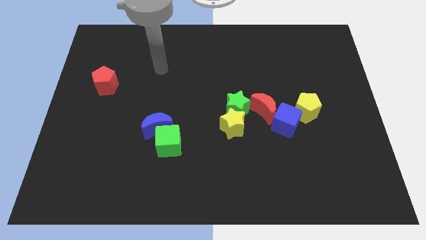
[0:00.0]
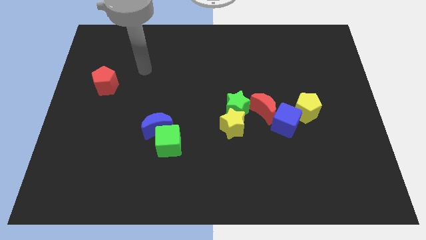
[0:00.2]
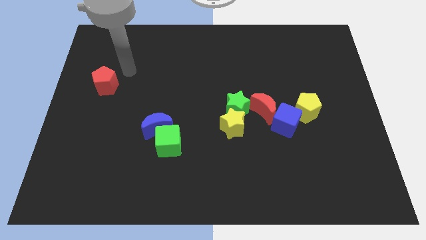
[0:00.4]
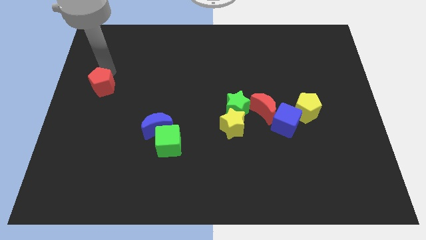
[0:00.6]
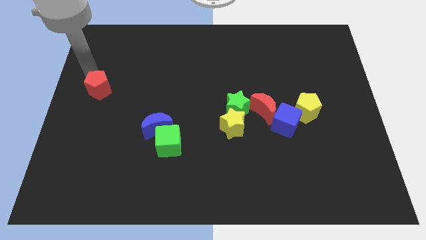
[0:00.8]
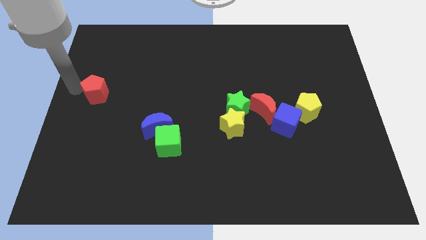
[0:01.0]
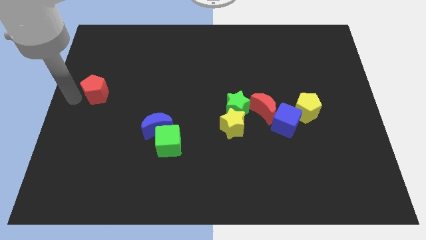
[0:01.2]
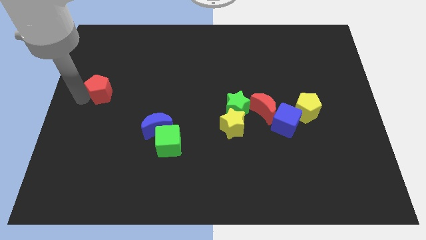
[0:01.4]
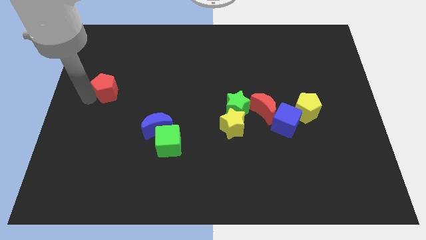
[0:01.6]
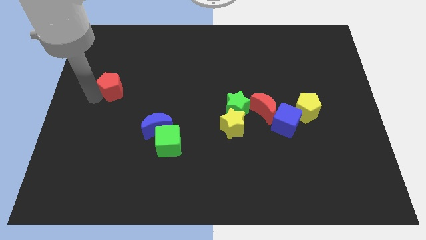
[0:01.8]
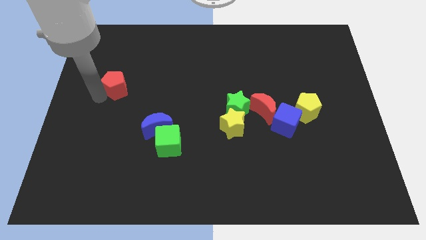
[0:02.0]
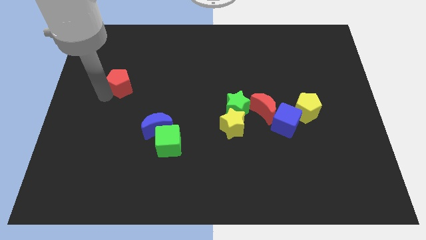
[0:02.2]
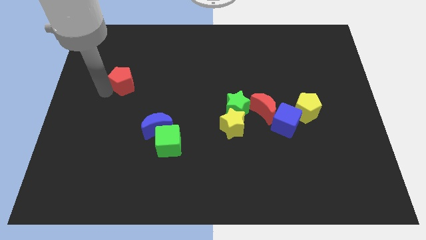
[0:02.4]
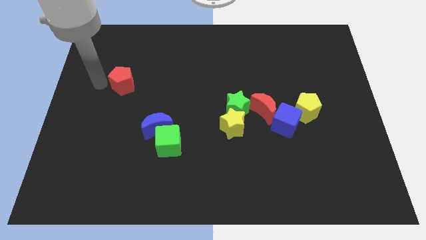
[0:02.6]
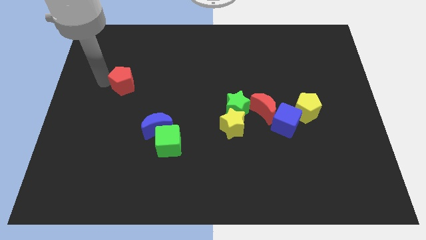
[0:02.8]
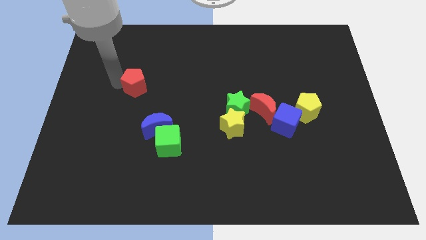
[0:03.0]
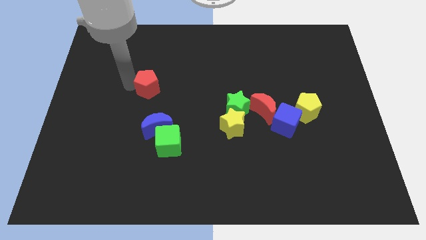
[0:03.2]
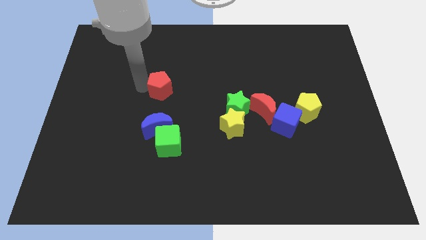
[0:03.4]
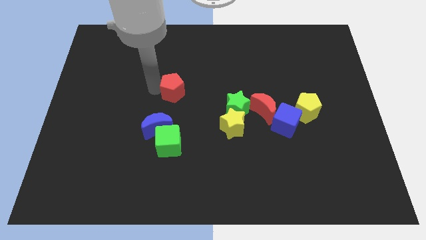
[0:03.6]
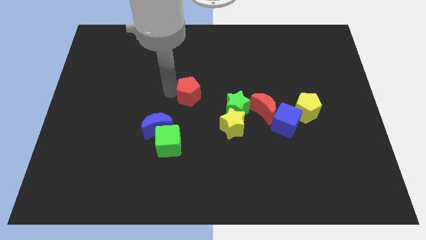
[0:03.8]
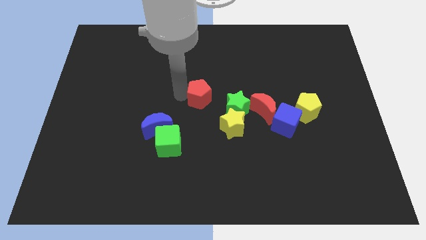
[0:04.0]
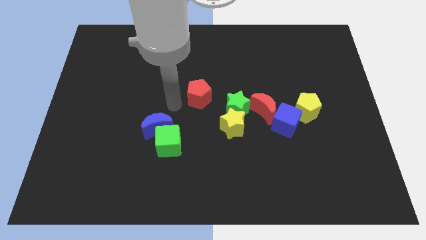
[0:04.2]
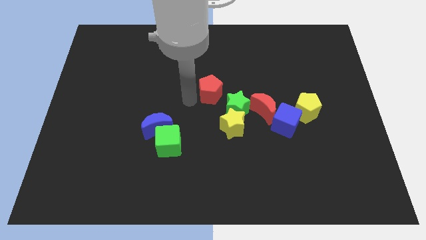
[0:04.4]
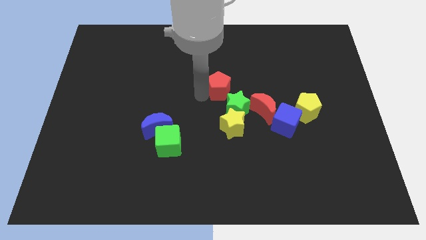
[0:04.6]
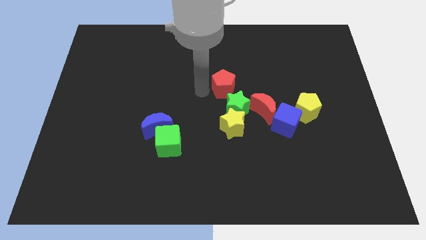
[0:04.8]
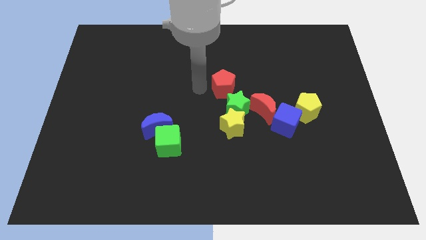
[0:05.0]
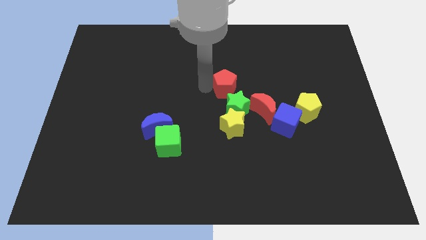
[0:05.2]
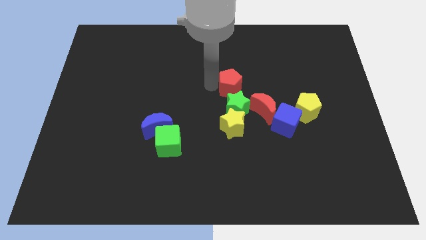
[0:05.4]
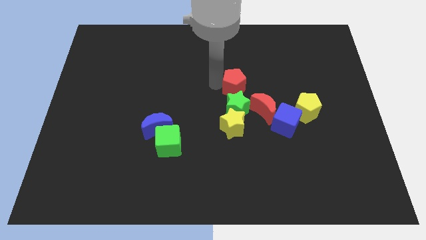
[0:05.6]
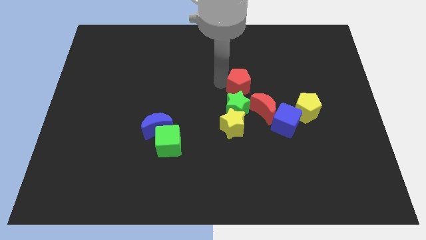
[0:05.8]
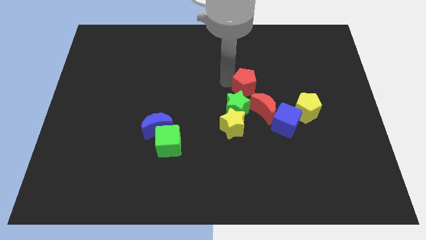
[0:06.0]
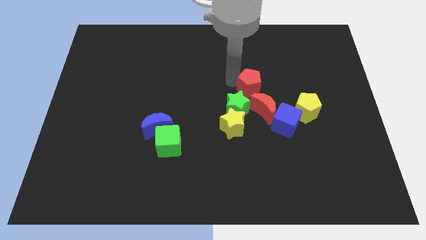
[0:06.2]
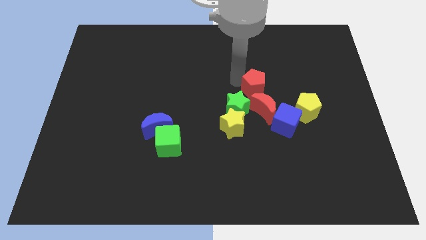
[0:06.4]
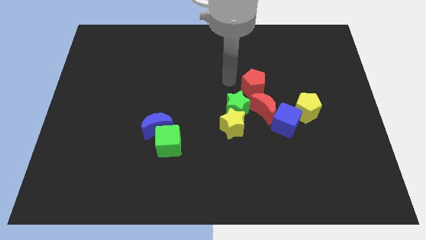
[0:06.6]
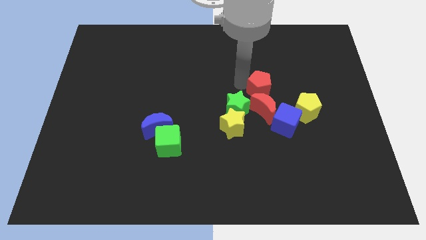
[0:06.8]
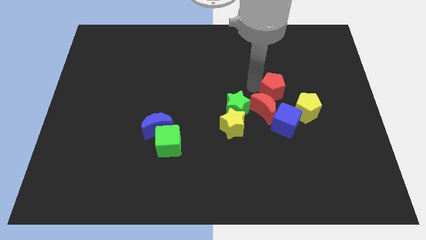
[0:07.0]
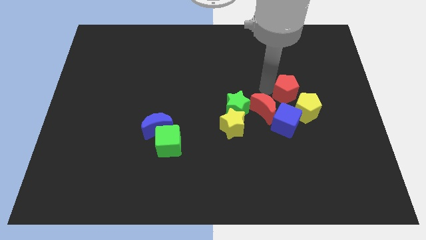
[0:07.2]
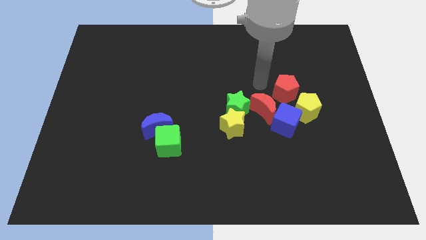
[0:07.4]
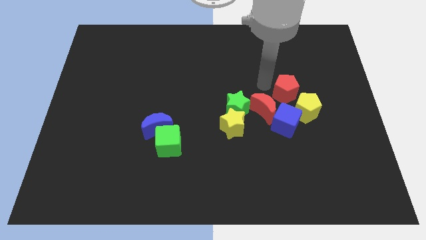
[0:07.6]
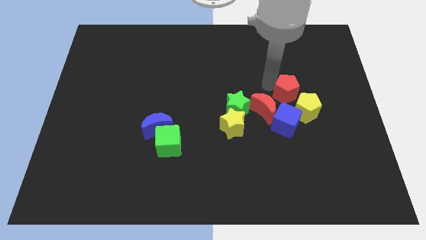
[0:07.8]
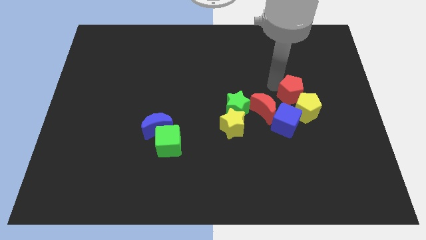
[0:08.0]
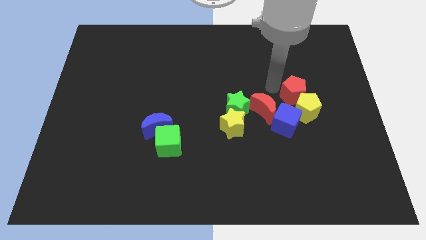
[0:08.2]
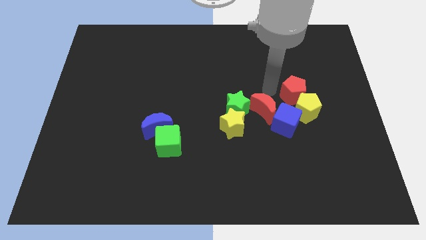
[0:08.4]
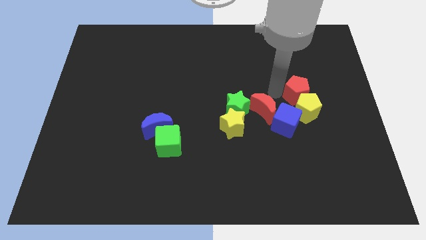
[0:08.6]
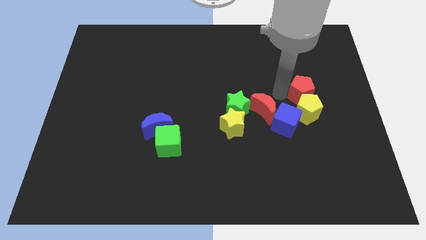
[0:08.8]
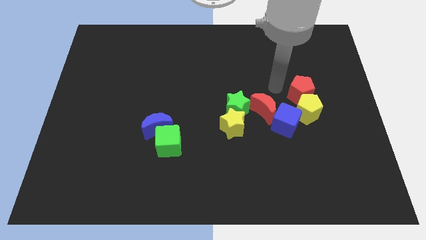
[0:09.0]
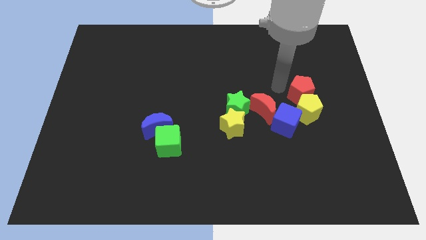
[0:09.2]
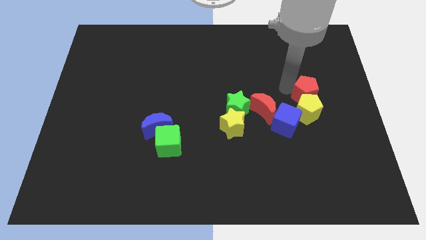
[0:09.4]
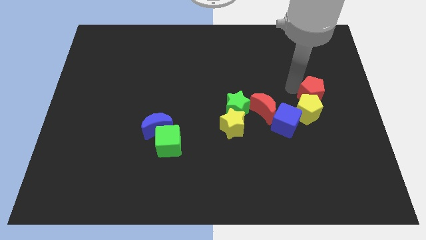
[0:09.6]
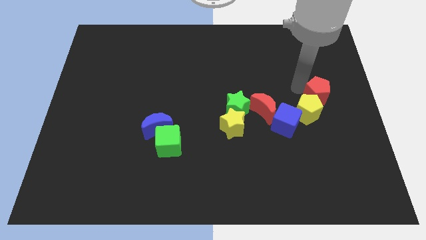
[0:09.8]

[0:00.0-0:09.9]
move the red pentagon to the right side of the board

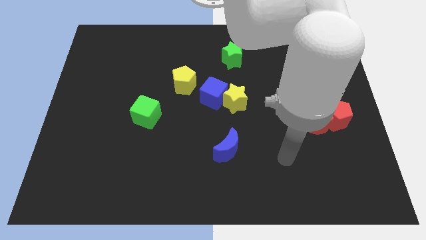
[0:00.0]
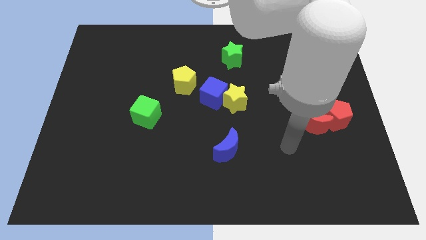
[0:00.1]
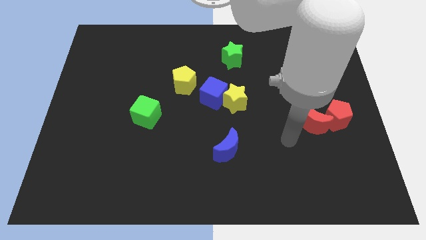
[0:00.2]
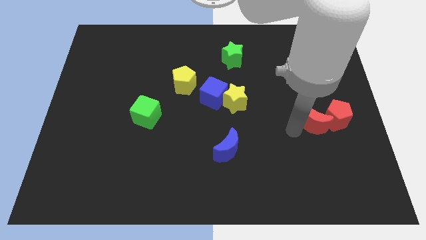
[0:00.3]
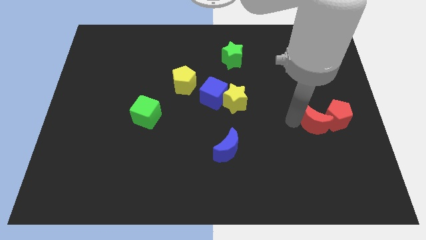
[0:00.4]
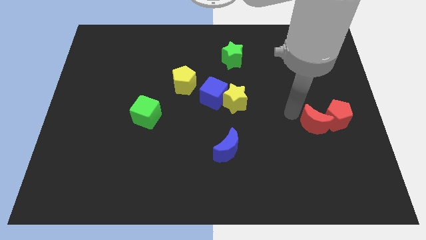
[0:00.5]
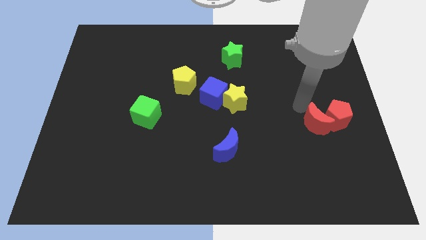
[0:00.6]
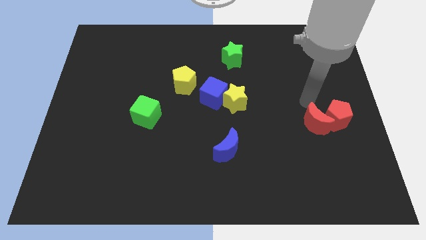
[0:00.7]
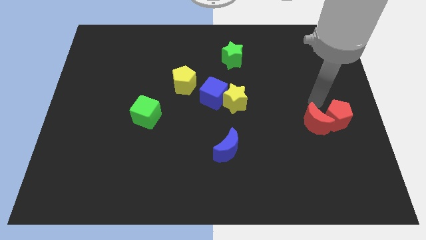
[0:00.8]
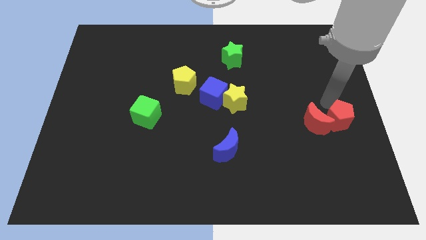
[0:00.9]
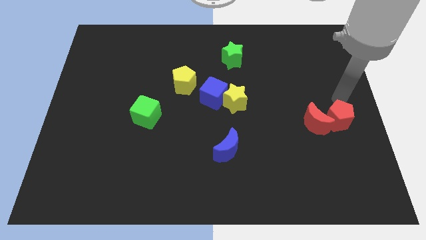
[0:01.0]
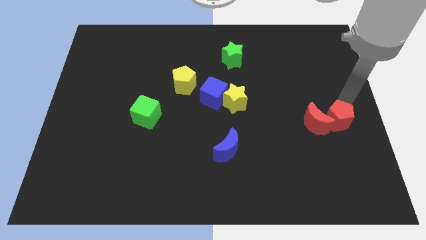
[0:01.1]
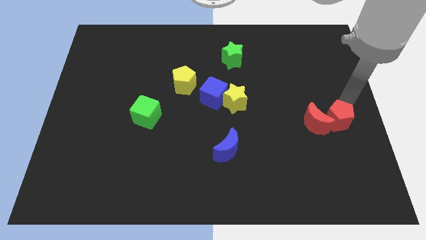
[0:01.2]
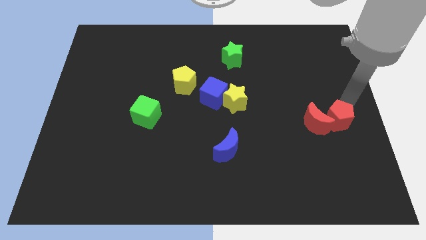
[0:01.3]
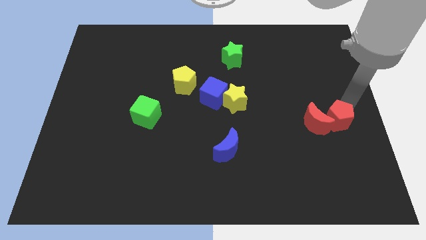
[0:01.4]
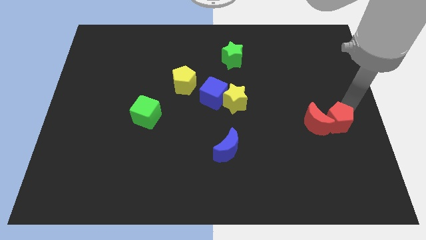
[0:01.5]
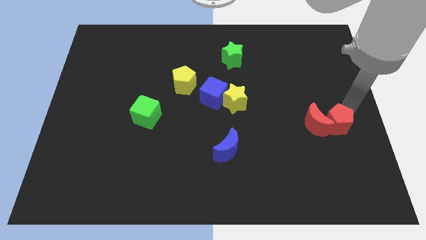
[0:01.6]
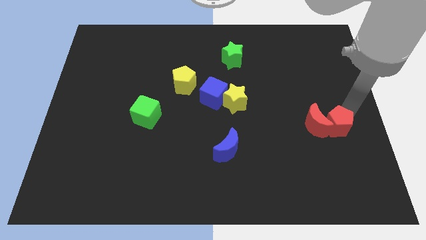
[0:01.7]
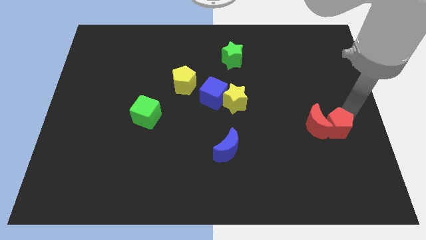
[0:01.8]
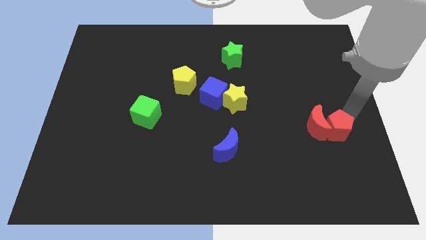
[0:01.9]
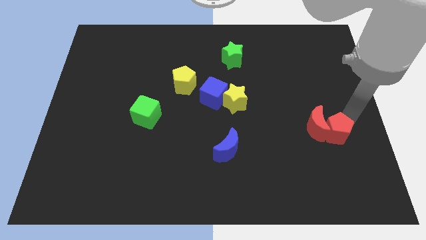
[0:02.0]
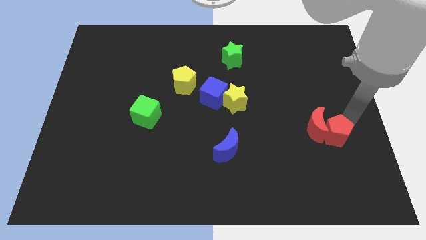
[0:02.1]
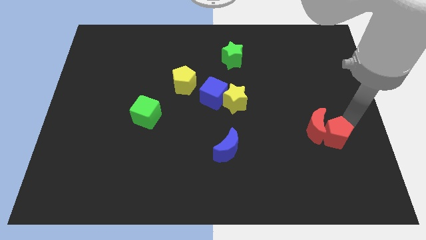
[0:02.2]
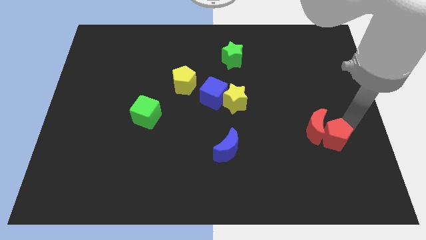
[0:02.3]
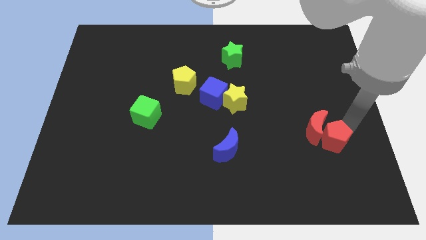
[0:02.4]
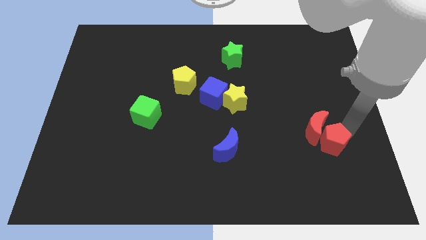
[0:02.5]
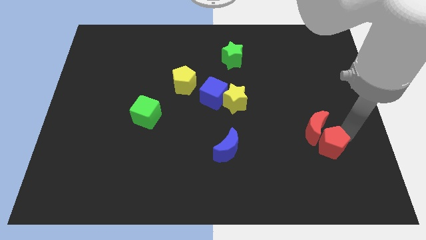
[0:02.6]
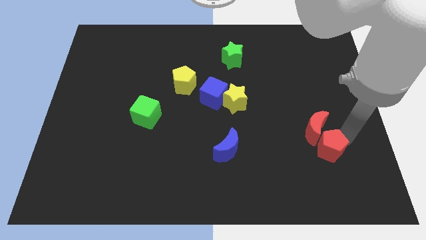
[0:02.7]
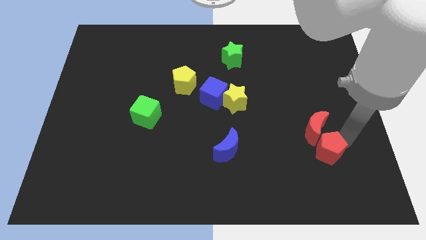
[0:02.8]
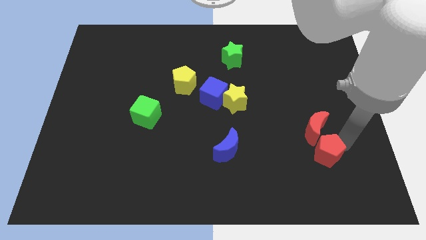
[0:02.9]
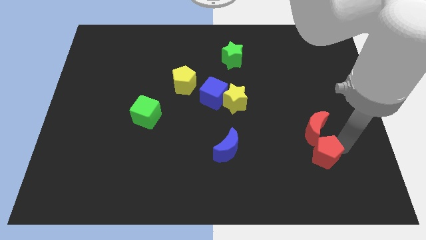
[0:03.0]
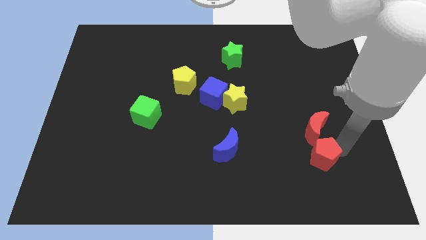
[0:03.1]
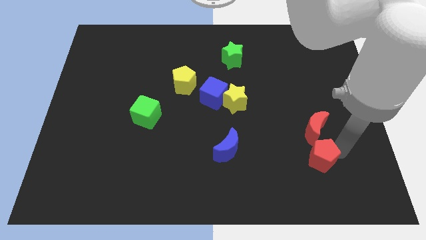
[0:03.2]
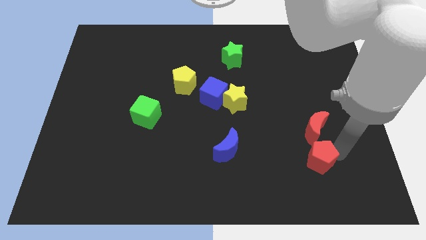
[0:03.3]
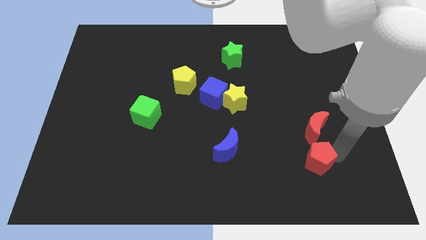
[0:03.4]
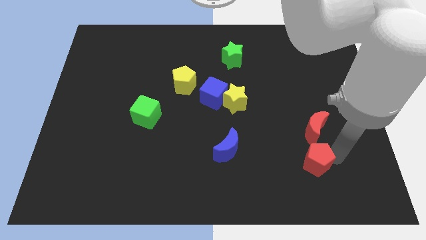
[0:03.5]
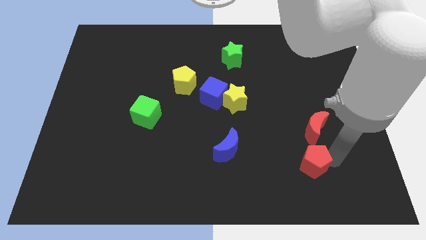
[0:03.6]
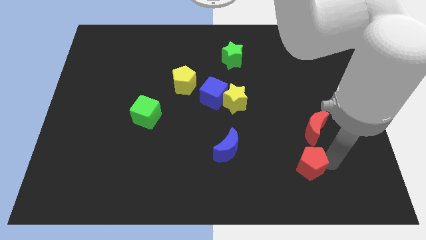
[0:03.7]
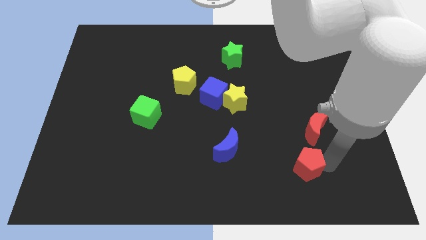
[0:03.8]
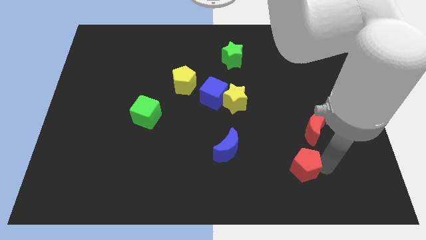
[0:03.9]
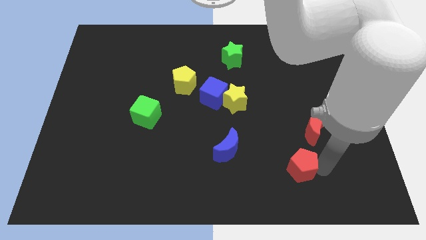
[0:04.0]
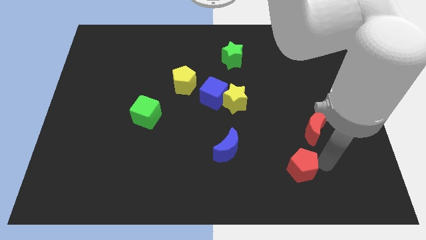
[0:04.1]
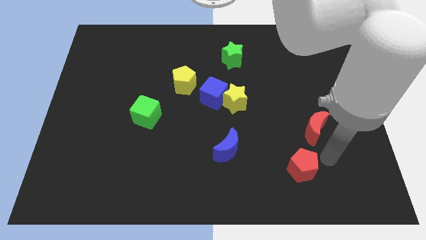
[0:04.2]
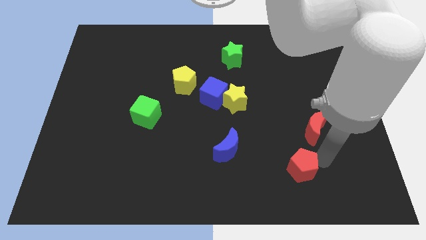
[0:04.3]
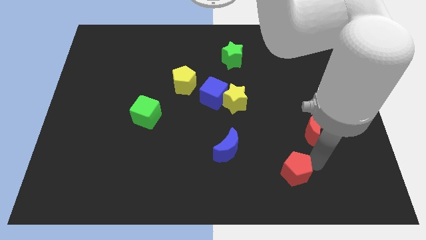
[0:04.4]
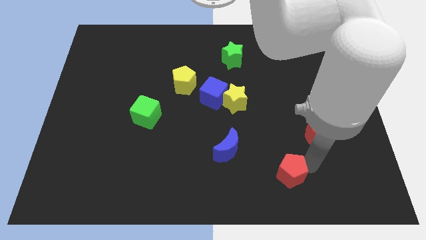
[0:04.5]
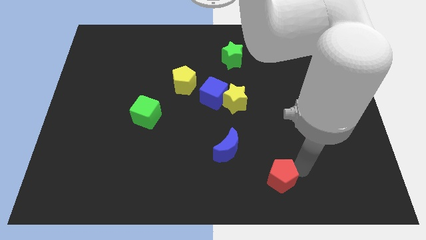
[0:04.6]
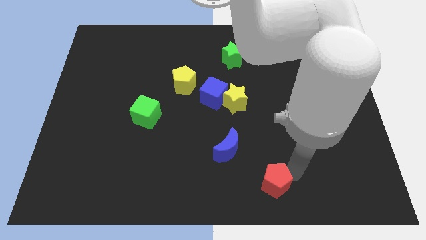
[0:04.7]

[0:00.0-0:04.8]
put the red pentagon to the bottom side
